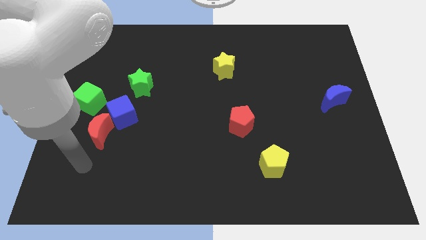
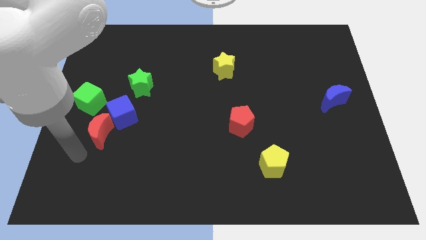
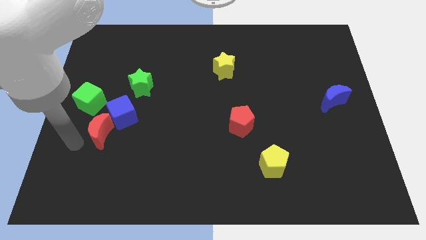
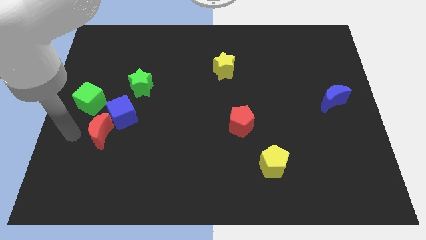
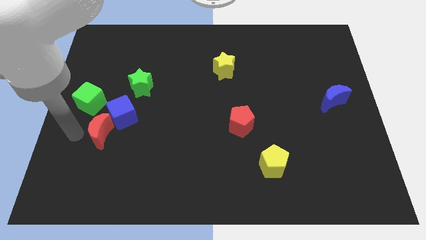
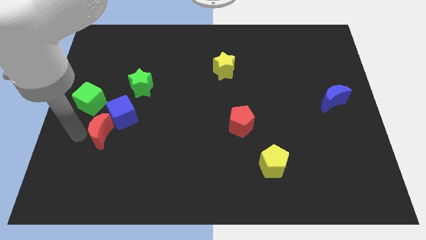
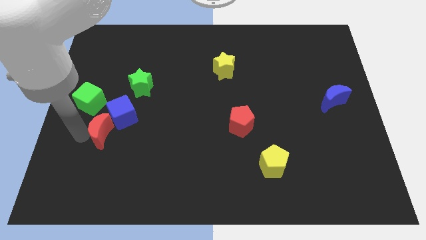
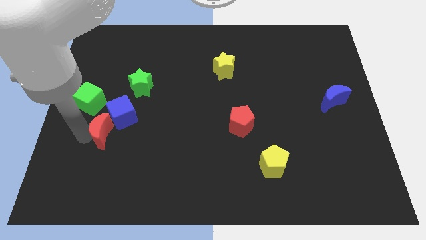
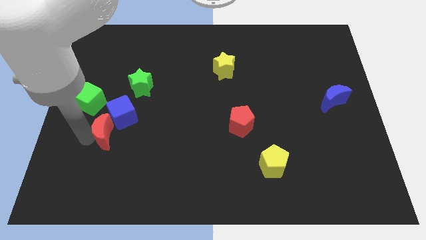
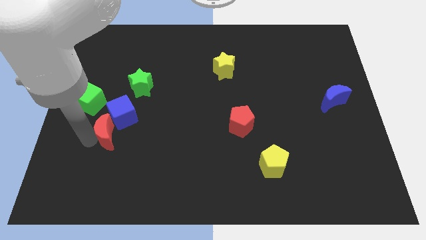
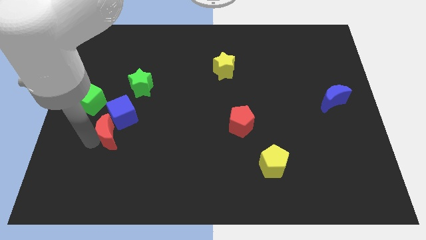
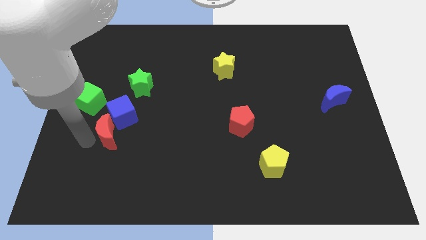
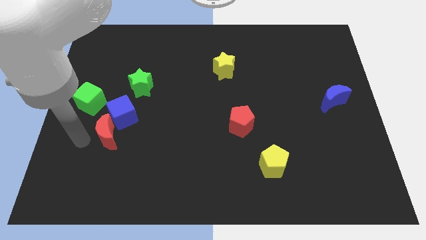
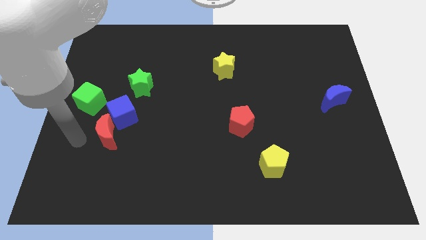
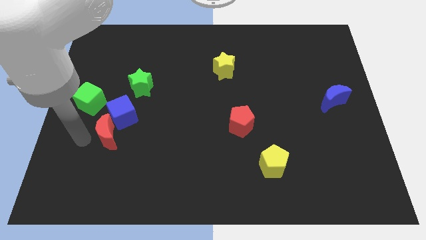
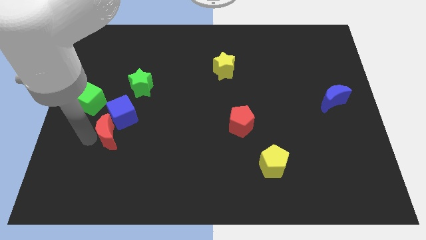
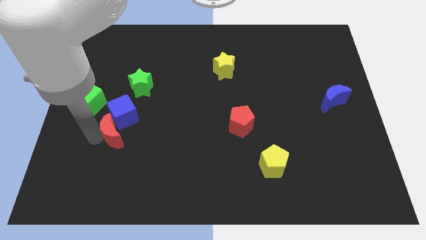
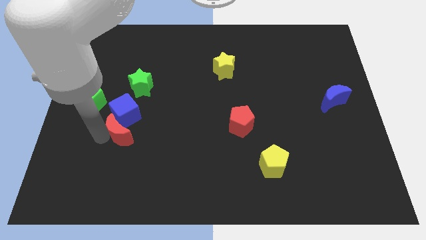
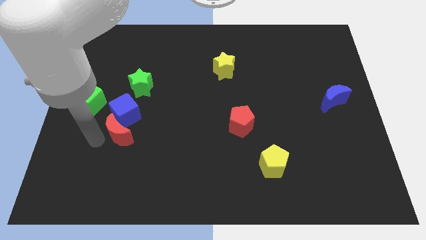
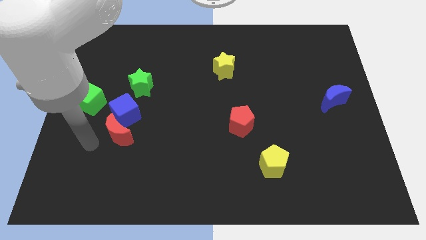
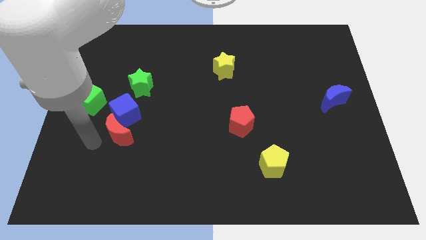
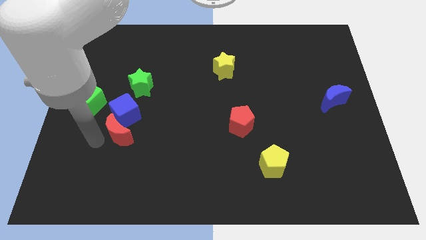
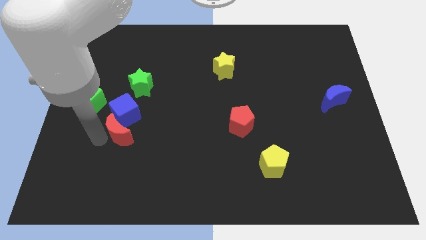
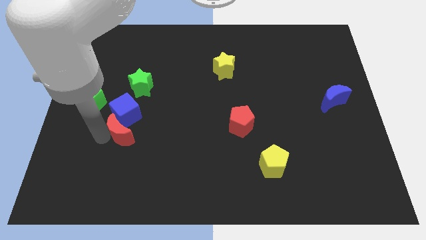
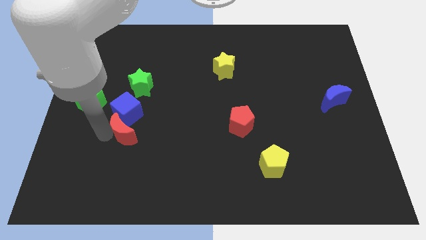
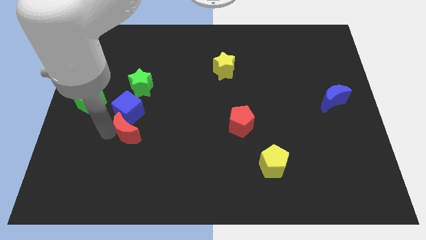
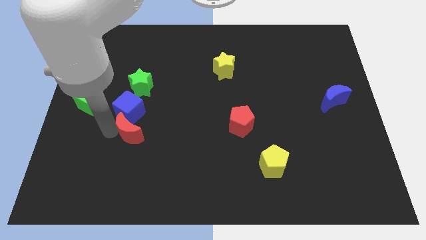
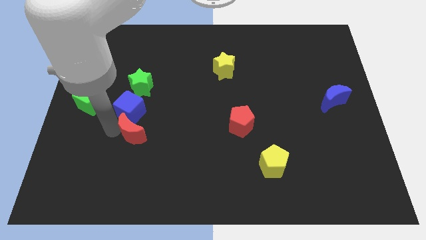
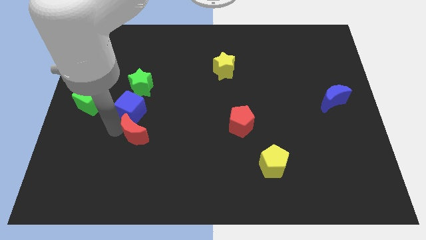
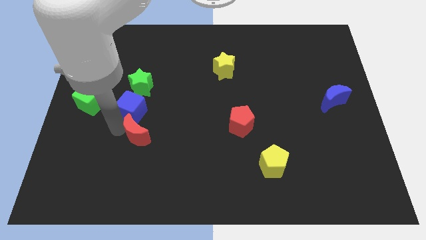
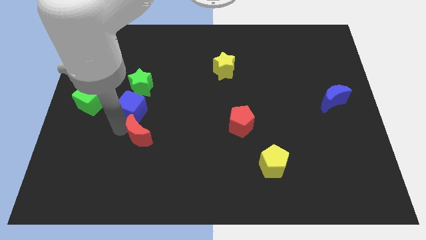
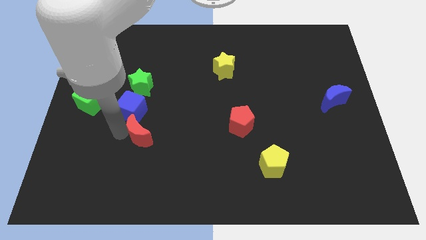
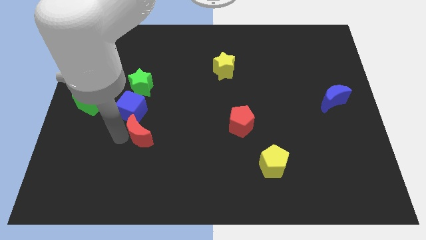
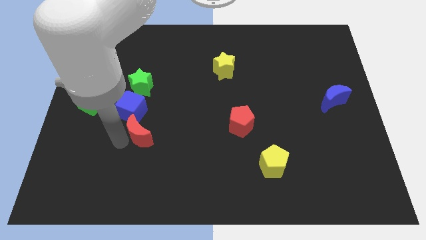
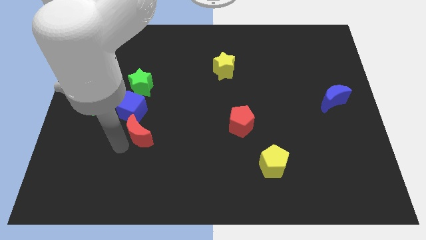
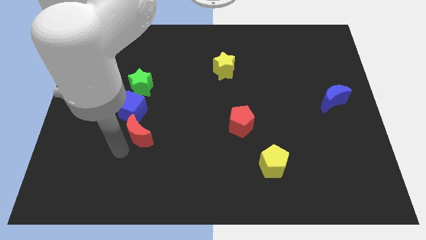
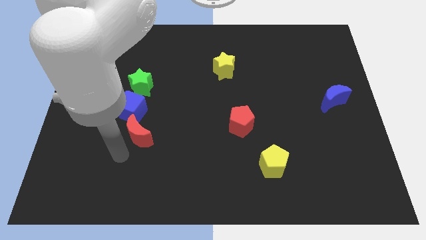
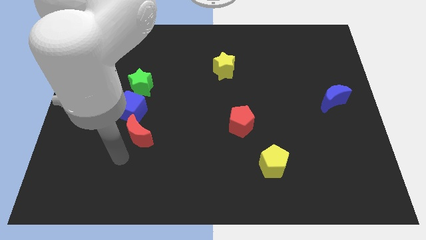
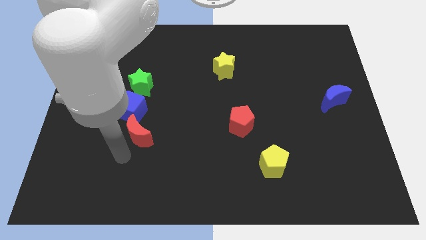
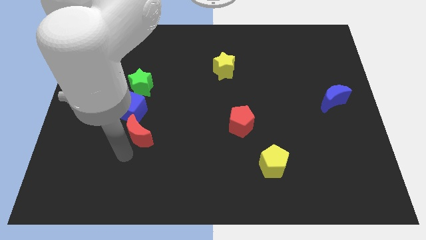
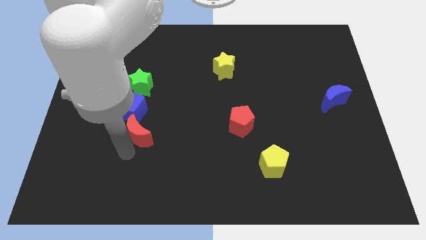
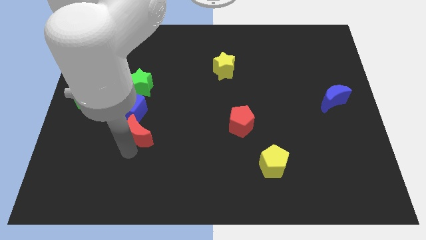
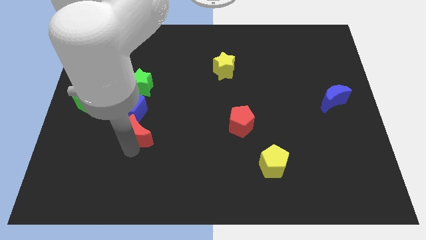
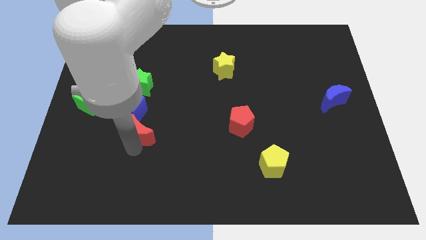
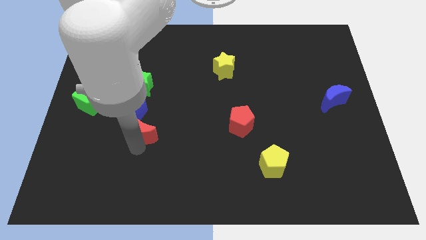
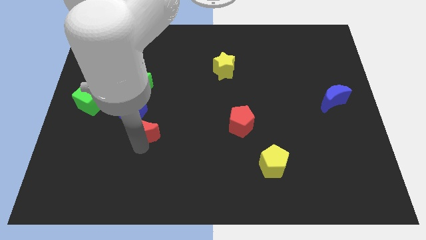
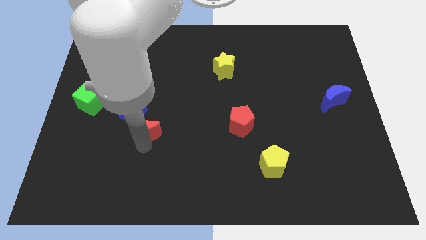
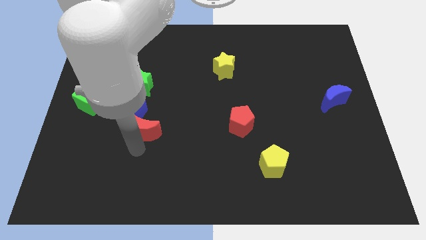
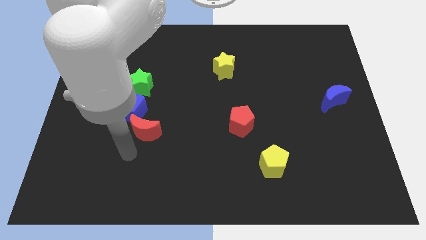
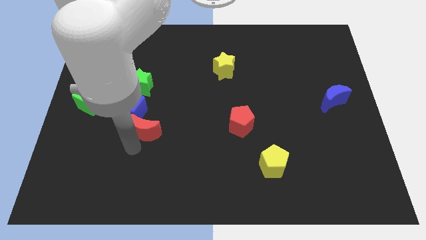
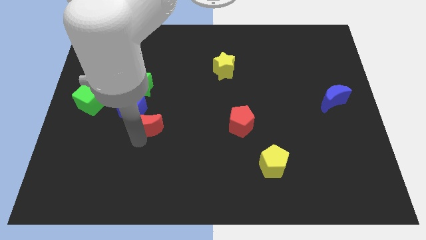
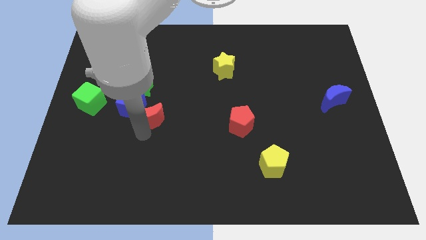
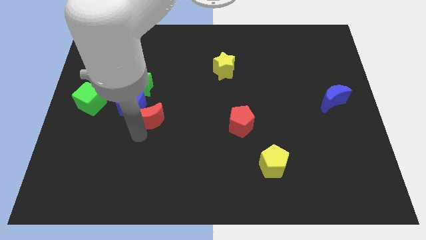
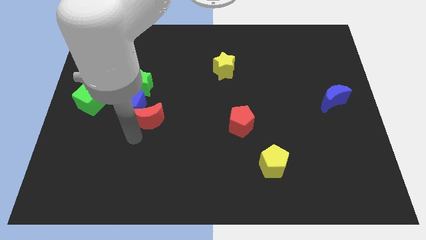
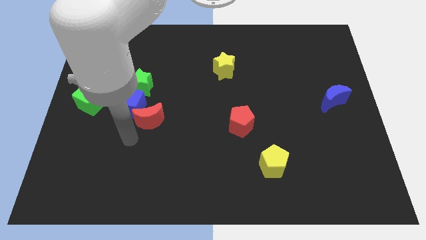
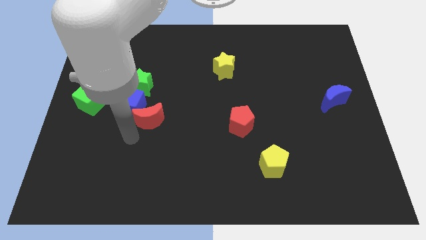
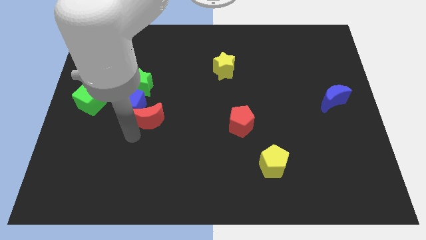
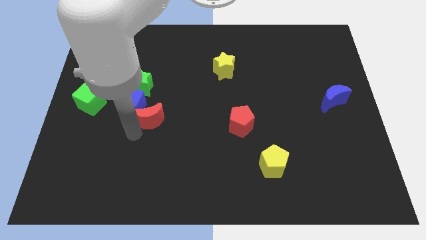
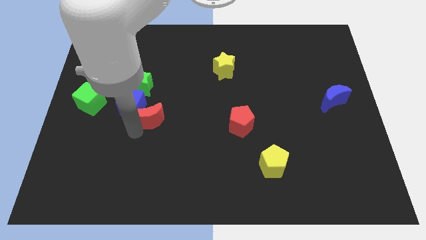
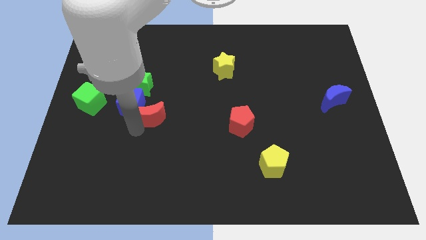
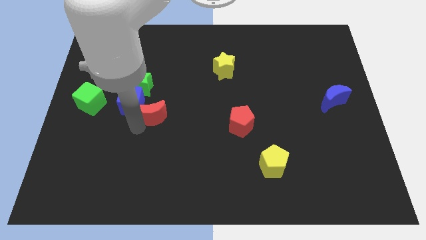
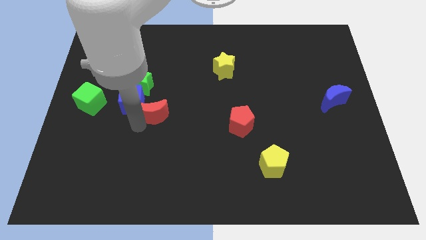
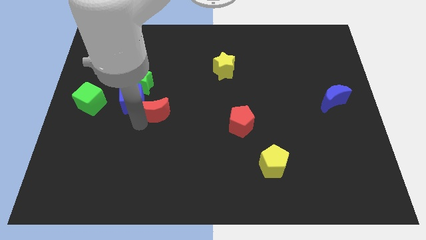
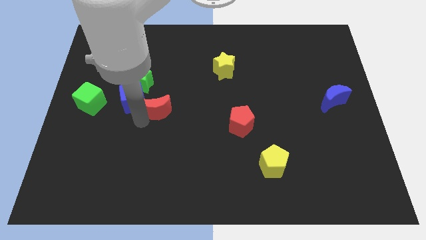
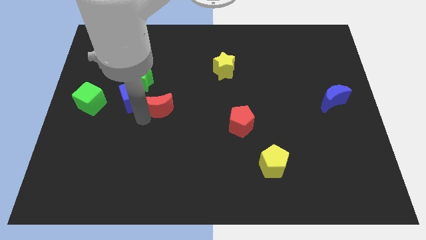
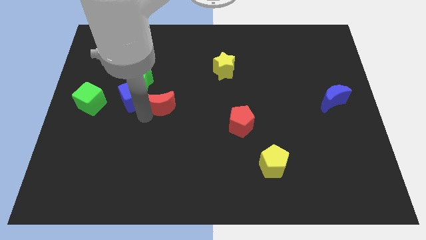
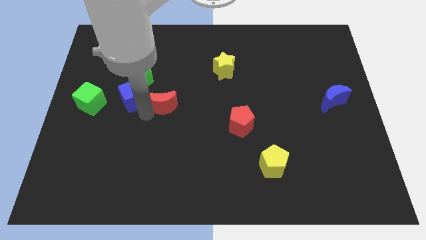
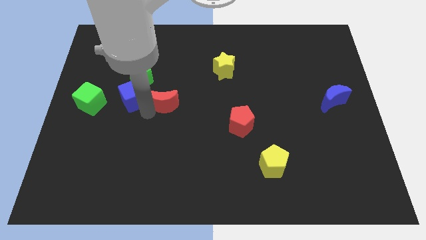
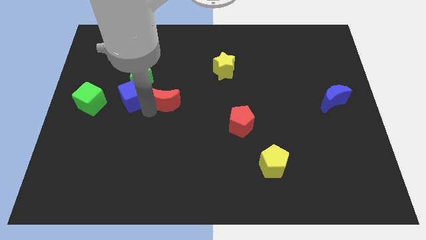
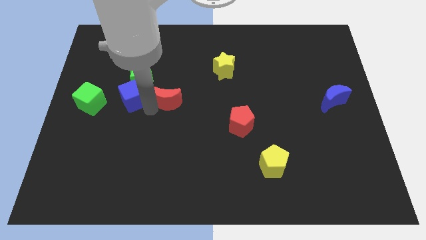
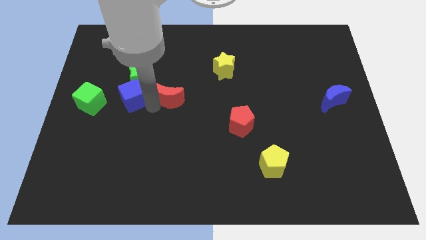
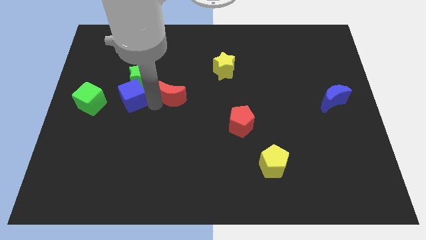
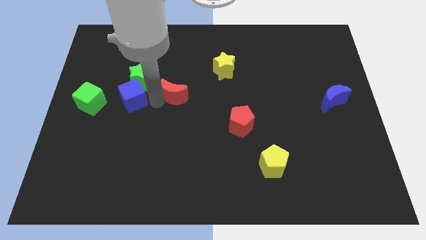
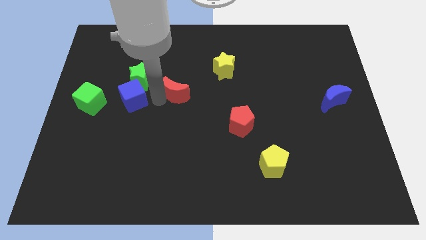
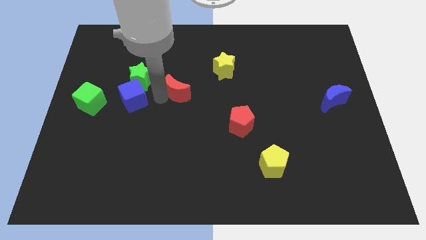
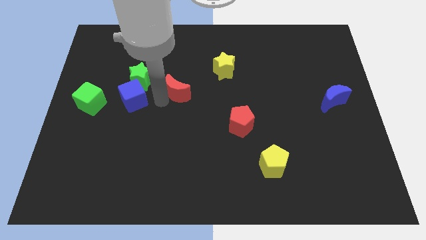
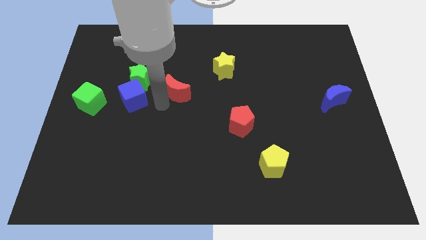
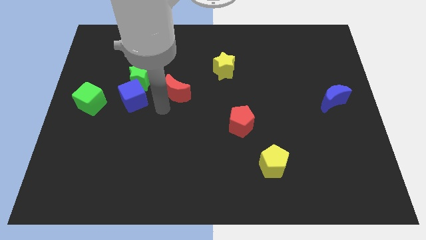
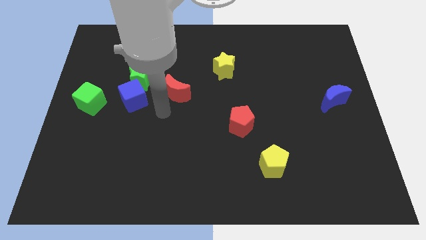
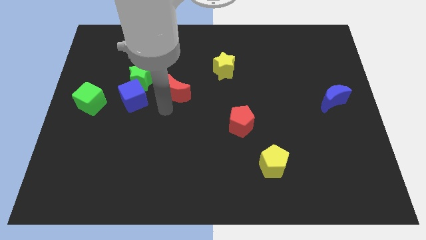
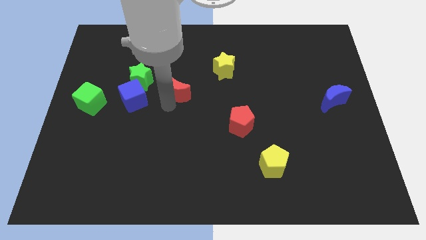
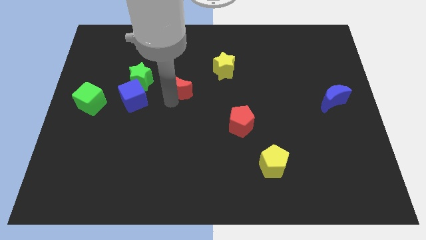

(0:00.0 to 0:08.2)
push the red moon upwards and then to the right
